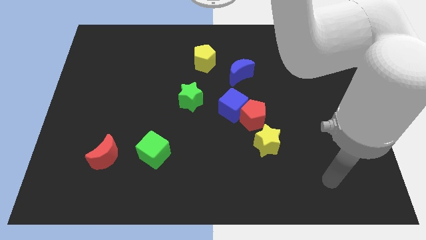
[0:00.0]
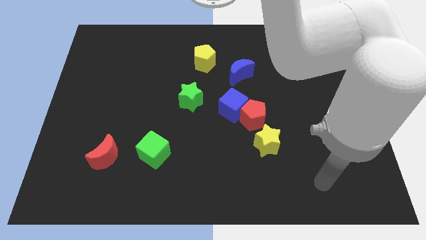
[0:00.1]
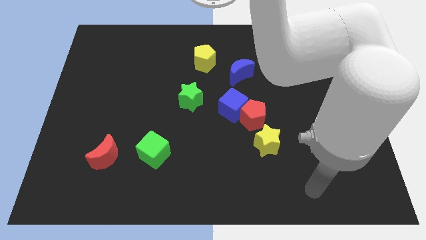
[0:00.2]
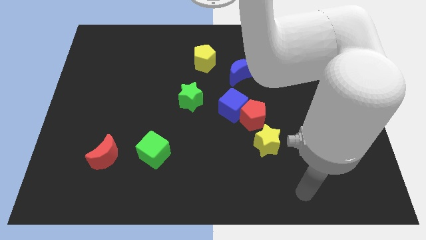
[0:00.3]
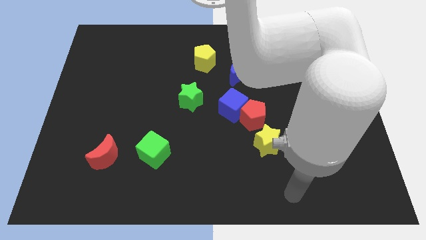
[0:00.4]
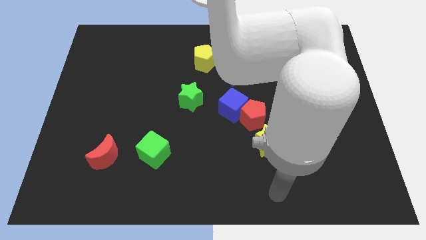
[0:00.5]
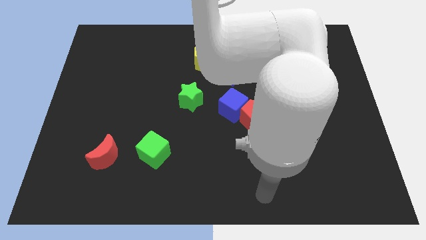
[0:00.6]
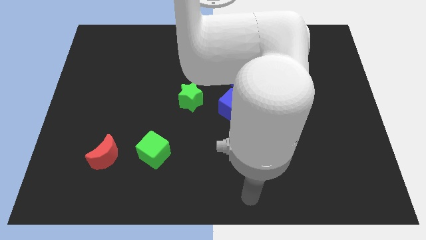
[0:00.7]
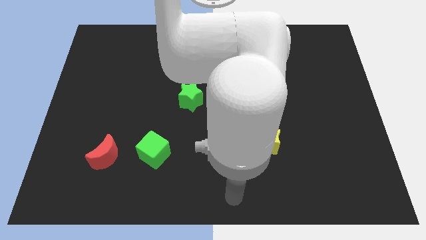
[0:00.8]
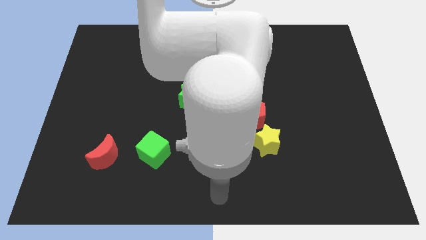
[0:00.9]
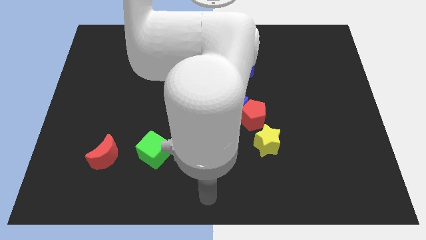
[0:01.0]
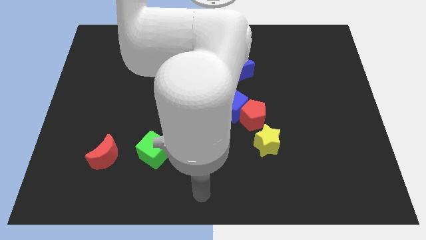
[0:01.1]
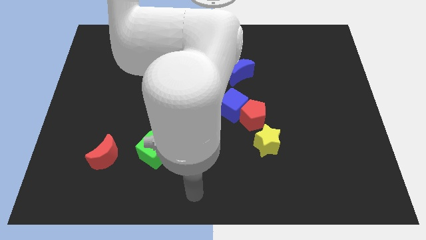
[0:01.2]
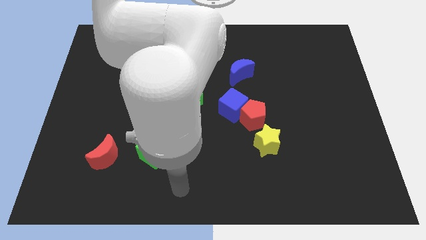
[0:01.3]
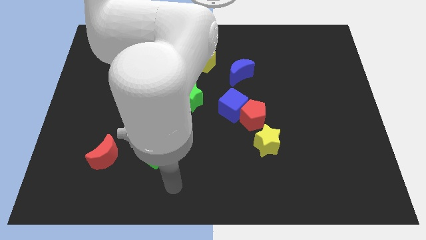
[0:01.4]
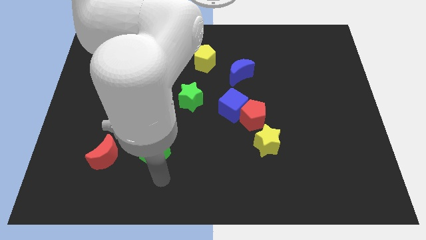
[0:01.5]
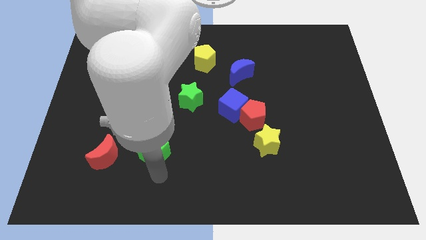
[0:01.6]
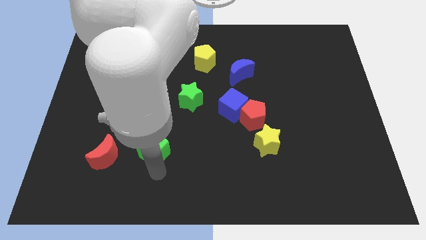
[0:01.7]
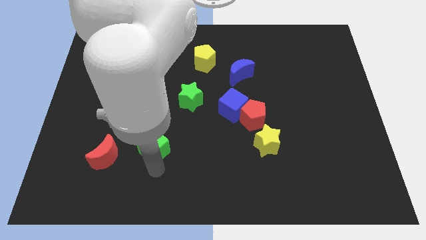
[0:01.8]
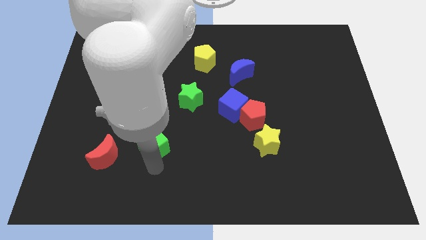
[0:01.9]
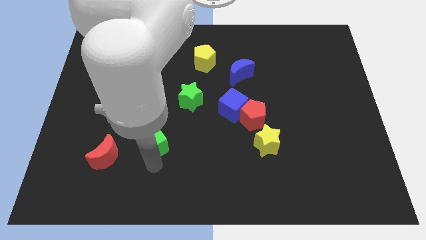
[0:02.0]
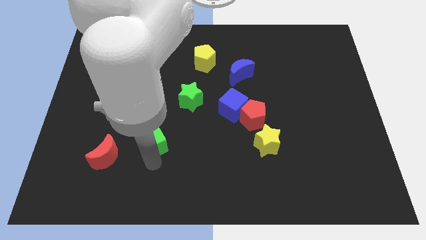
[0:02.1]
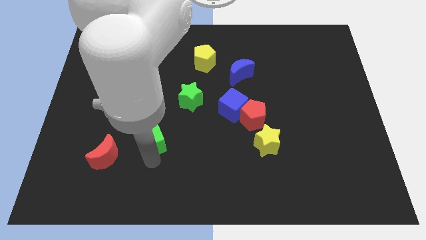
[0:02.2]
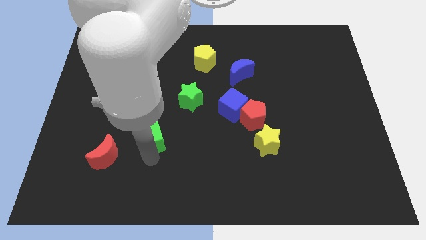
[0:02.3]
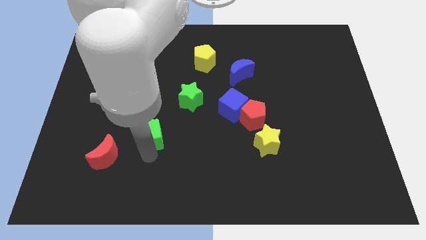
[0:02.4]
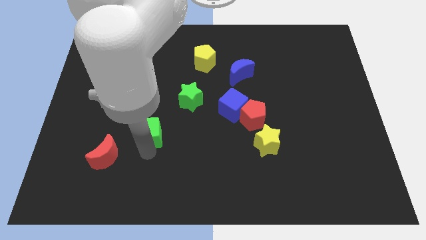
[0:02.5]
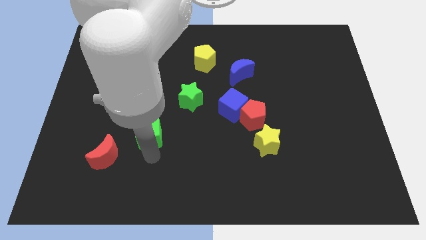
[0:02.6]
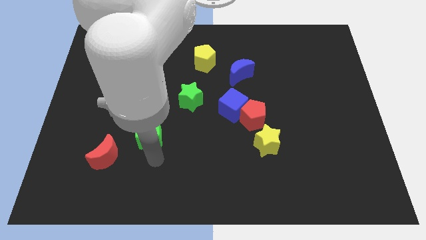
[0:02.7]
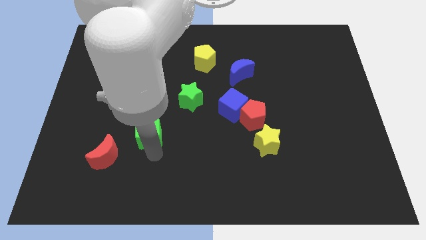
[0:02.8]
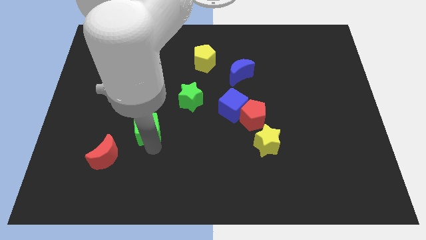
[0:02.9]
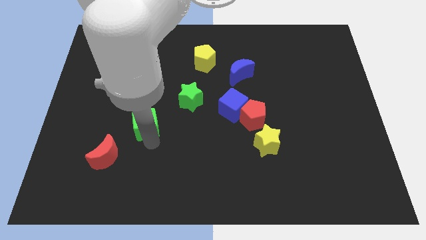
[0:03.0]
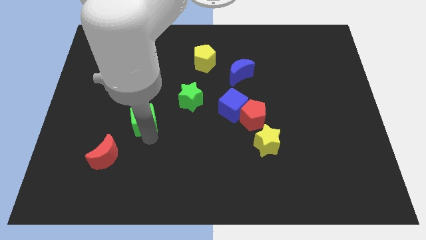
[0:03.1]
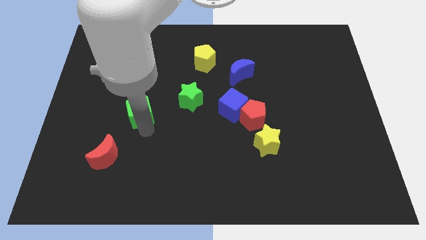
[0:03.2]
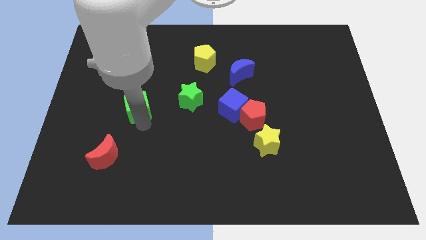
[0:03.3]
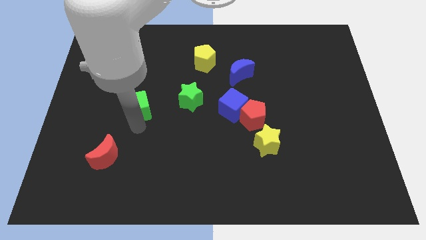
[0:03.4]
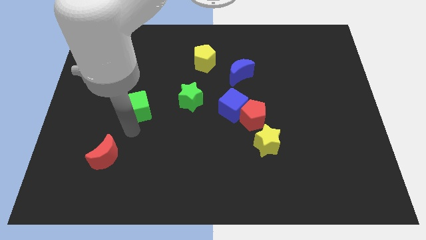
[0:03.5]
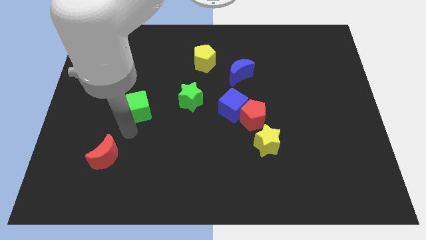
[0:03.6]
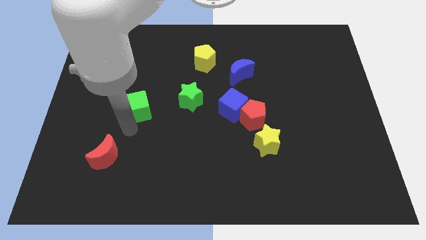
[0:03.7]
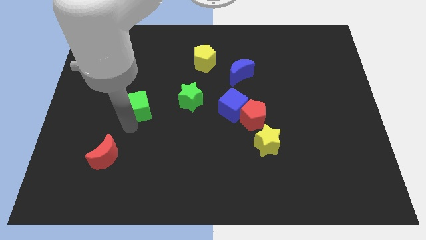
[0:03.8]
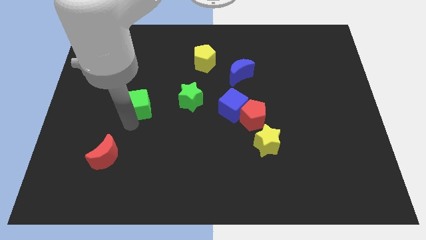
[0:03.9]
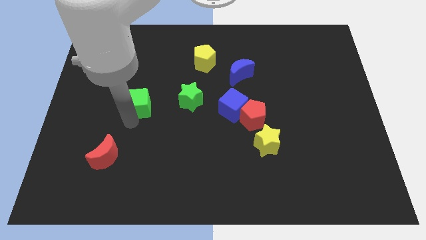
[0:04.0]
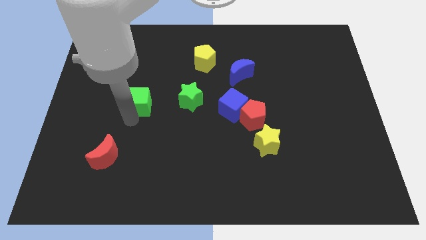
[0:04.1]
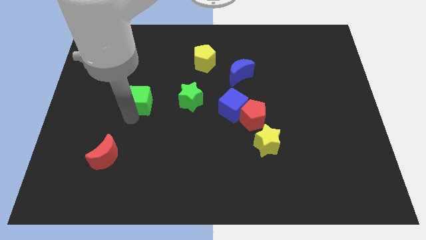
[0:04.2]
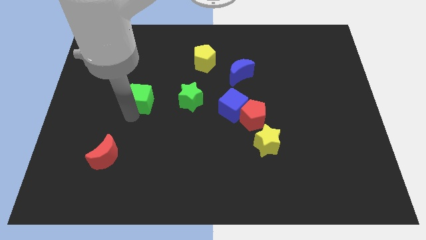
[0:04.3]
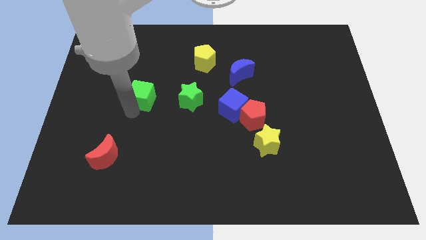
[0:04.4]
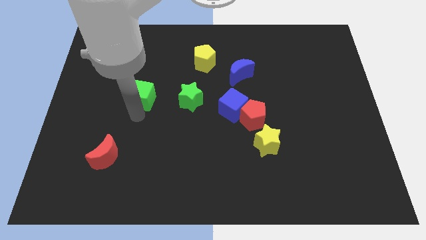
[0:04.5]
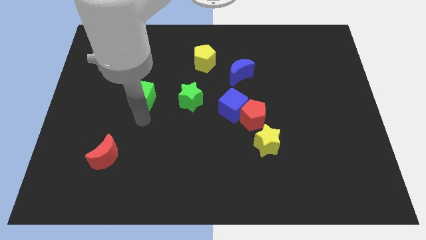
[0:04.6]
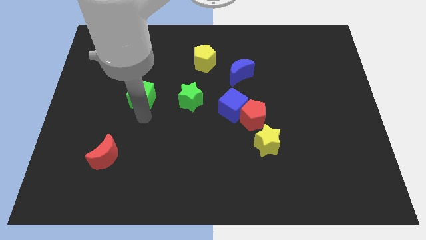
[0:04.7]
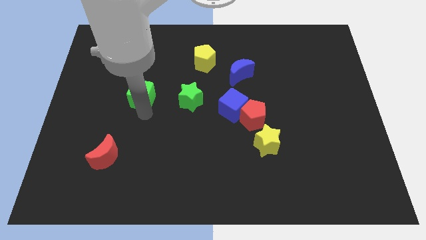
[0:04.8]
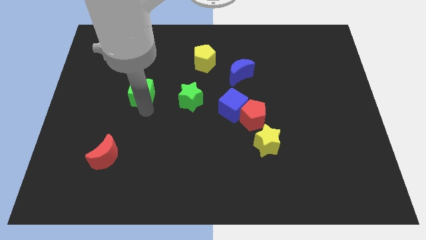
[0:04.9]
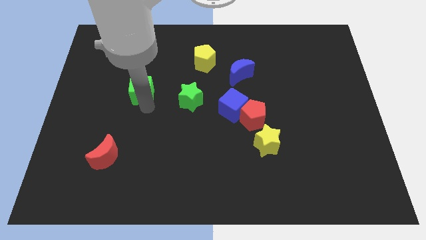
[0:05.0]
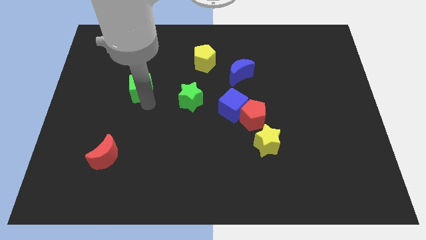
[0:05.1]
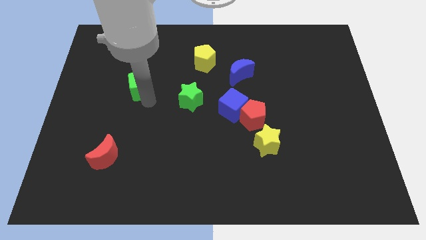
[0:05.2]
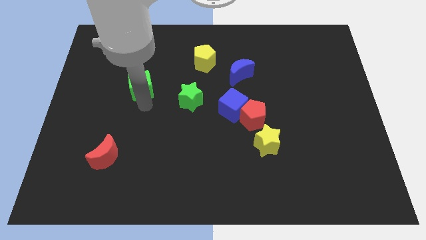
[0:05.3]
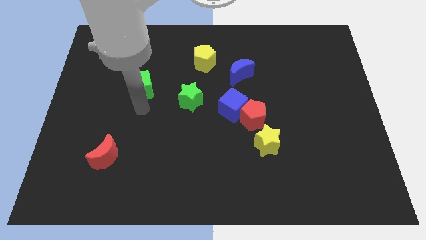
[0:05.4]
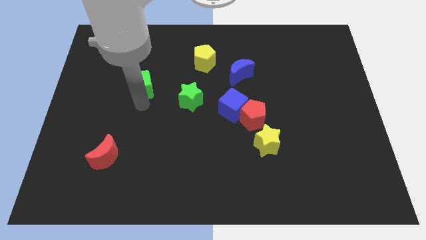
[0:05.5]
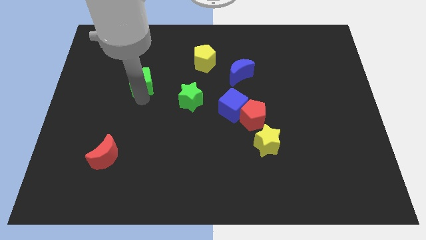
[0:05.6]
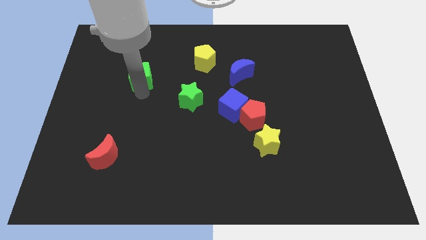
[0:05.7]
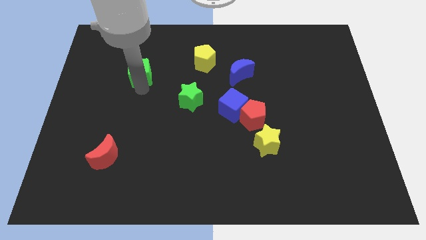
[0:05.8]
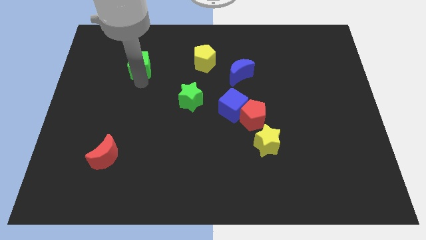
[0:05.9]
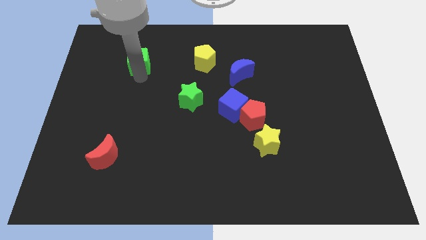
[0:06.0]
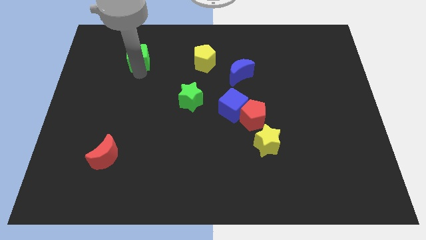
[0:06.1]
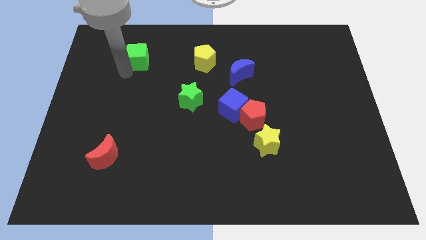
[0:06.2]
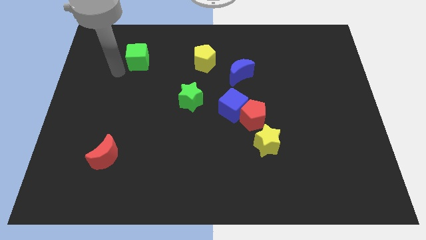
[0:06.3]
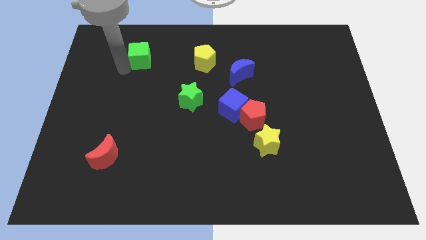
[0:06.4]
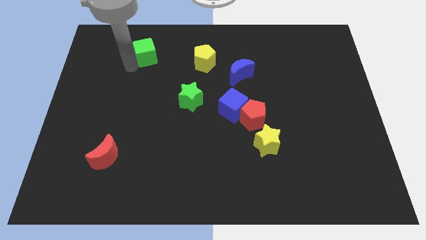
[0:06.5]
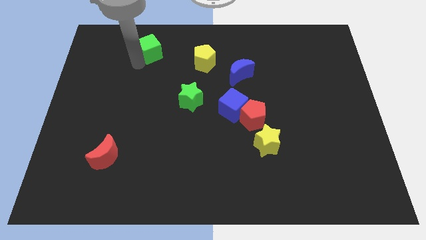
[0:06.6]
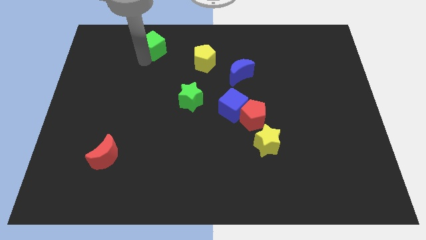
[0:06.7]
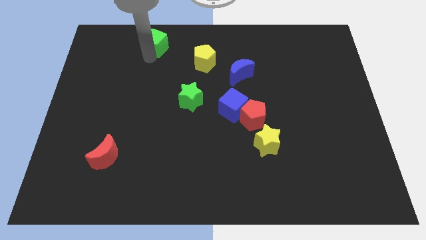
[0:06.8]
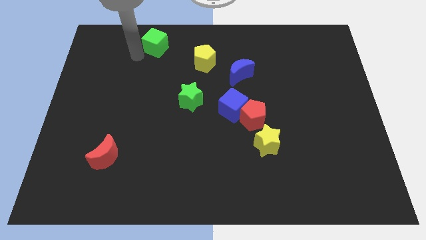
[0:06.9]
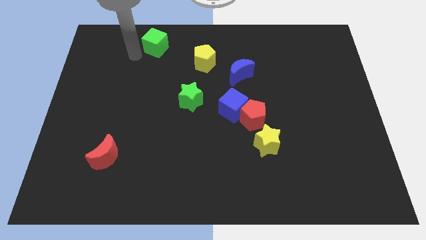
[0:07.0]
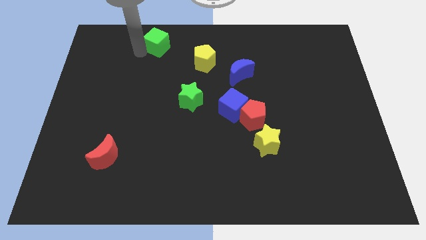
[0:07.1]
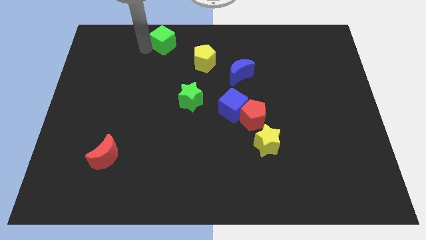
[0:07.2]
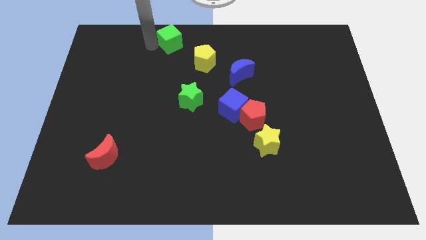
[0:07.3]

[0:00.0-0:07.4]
push the green cube to the top side
